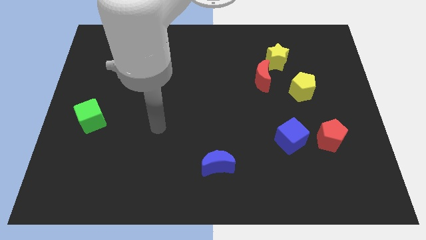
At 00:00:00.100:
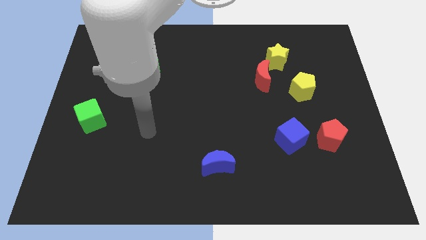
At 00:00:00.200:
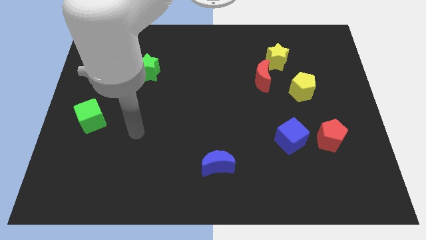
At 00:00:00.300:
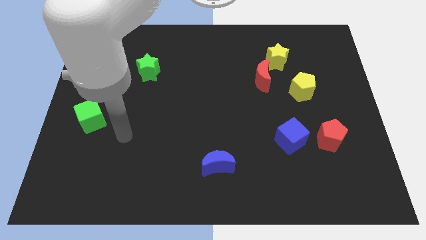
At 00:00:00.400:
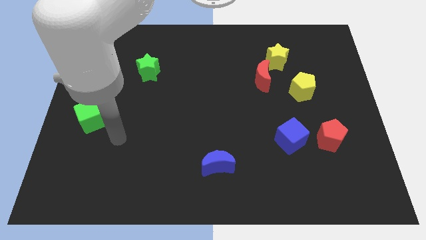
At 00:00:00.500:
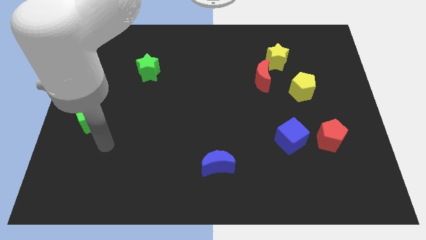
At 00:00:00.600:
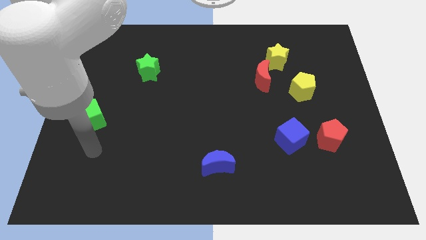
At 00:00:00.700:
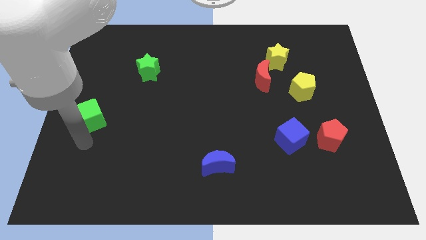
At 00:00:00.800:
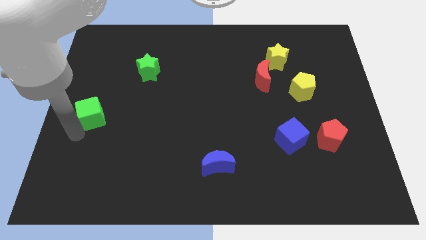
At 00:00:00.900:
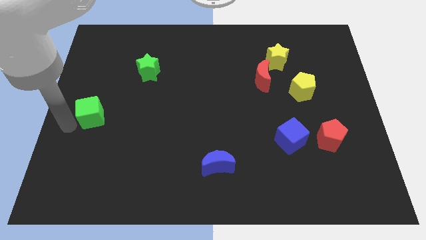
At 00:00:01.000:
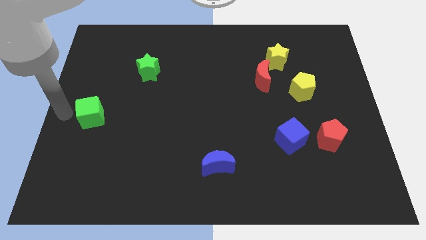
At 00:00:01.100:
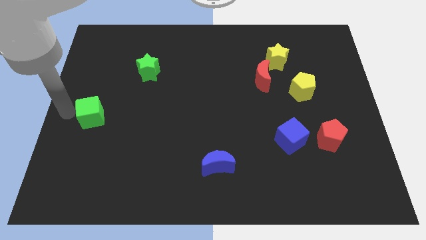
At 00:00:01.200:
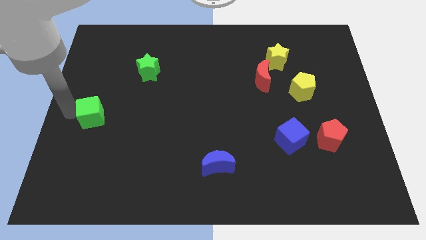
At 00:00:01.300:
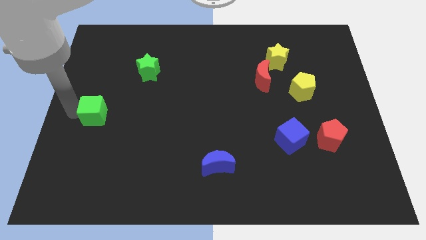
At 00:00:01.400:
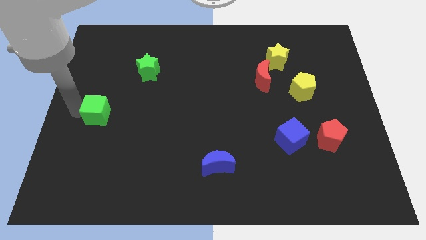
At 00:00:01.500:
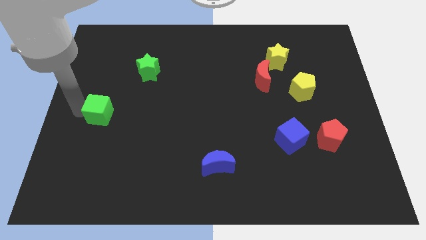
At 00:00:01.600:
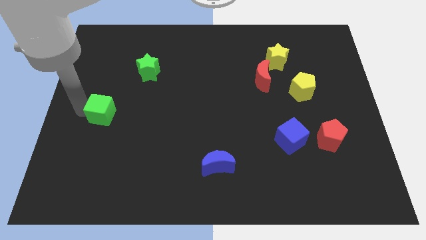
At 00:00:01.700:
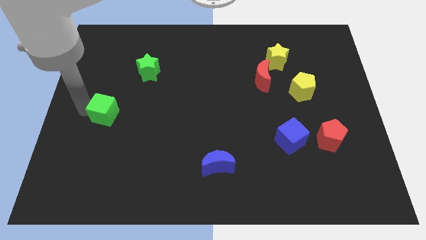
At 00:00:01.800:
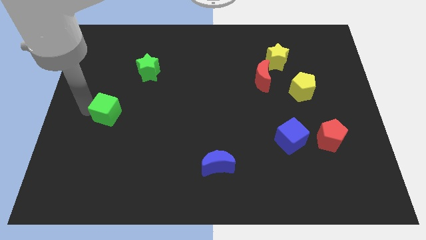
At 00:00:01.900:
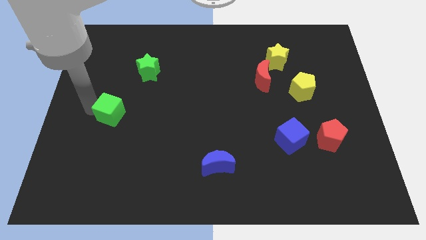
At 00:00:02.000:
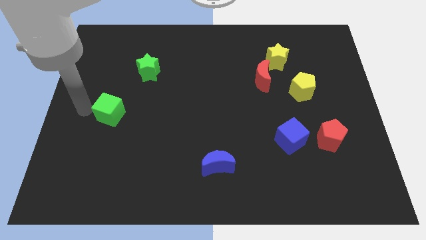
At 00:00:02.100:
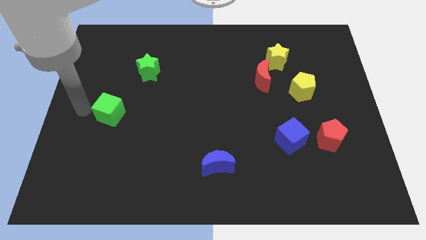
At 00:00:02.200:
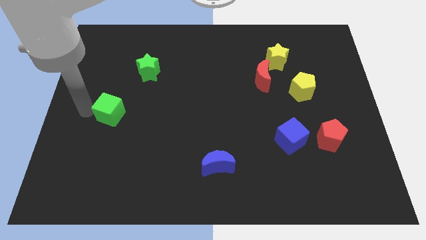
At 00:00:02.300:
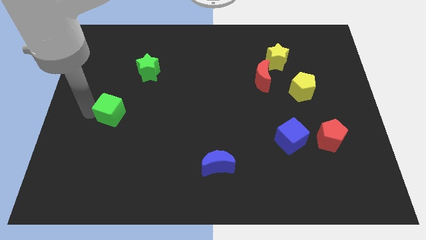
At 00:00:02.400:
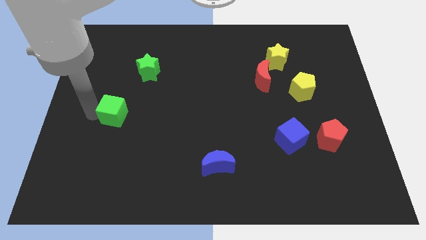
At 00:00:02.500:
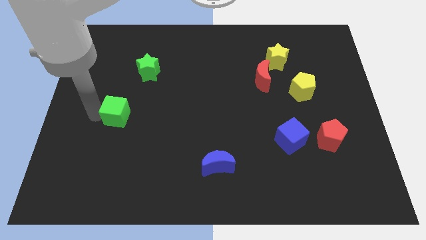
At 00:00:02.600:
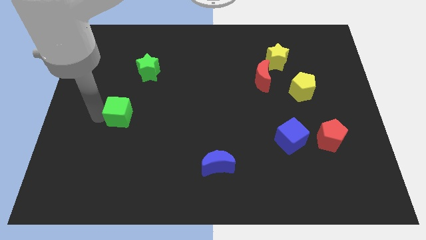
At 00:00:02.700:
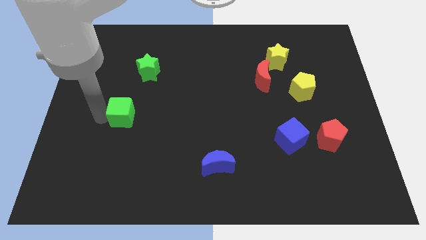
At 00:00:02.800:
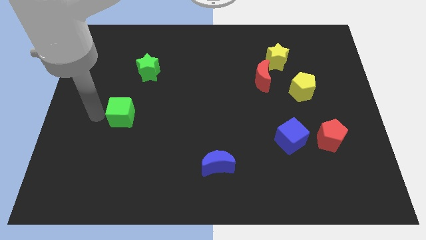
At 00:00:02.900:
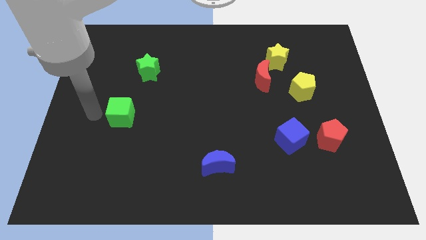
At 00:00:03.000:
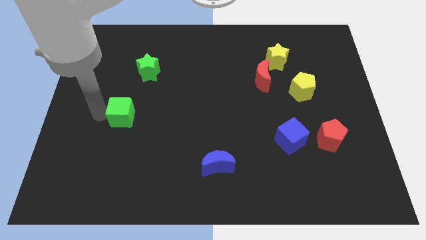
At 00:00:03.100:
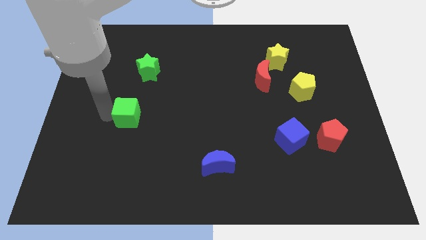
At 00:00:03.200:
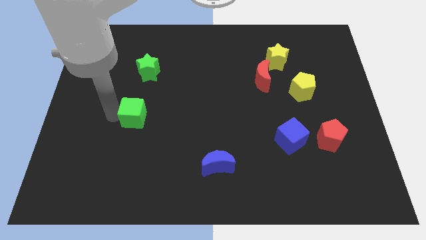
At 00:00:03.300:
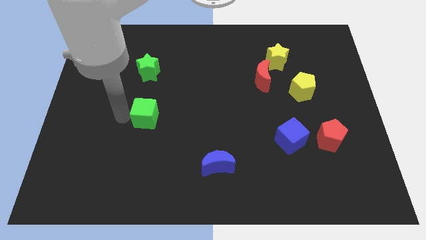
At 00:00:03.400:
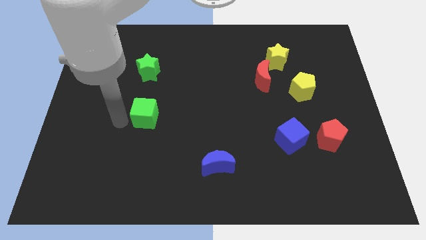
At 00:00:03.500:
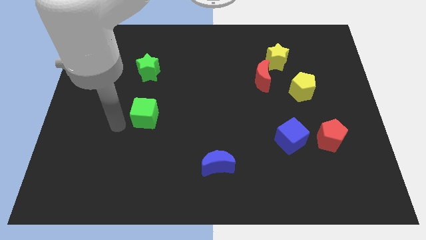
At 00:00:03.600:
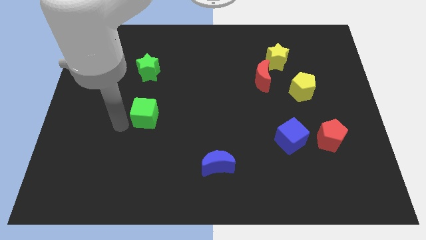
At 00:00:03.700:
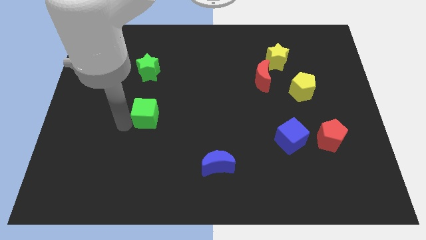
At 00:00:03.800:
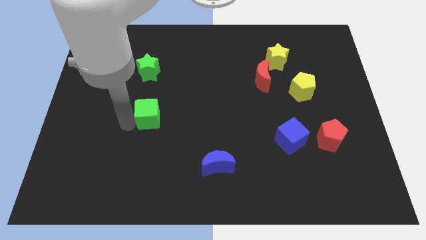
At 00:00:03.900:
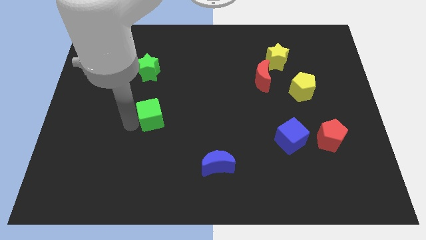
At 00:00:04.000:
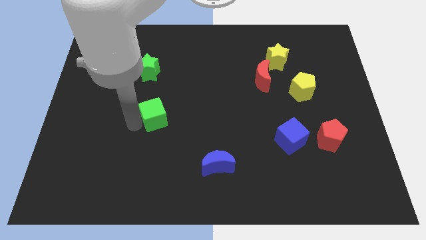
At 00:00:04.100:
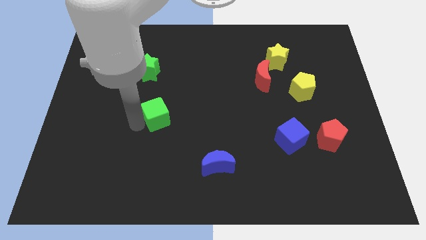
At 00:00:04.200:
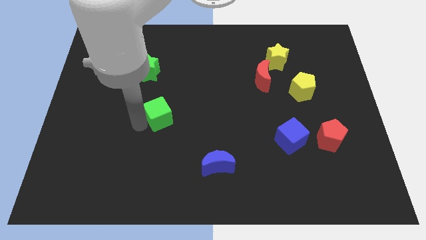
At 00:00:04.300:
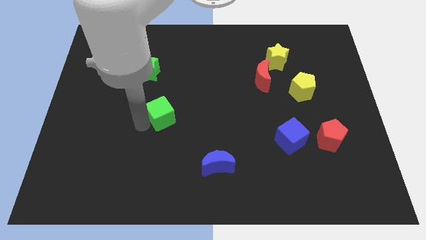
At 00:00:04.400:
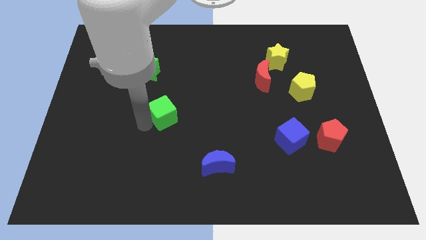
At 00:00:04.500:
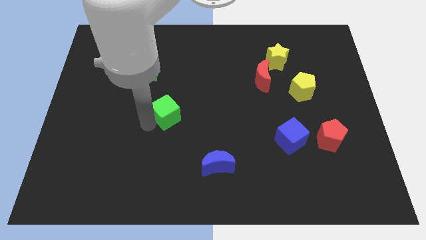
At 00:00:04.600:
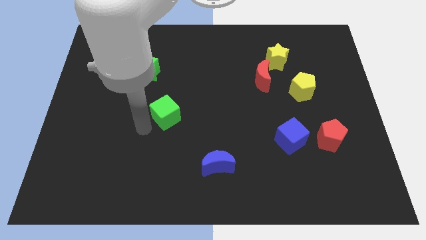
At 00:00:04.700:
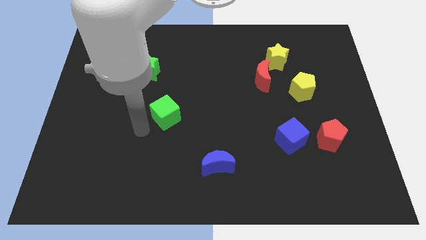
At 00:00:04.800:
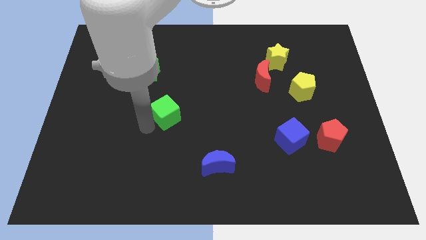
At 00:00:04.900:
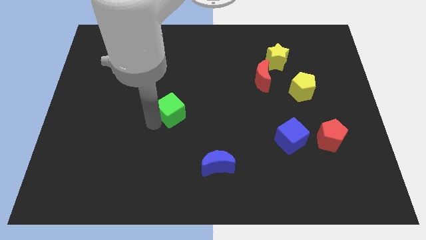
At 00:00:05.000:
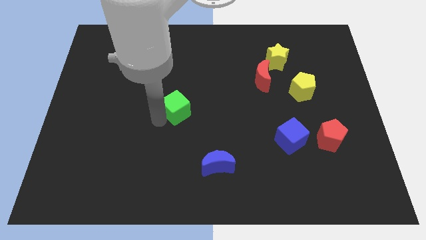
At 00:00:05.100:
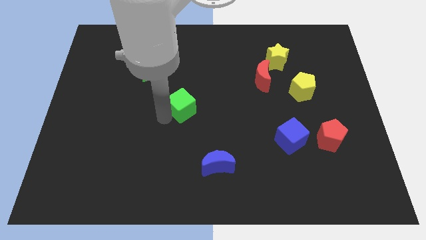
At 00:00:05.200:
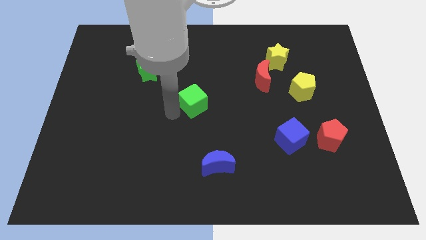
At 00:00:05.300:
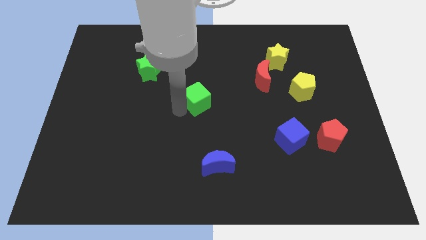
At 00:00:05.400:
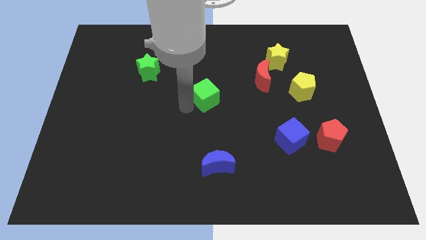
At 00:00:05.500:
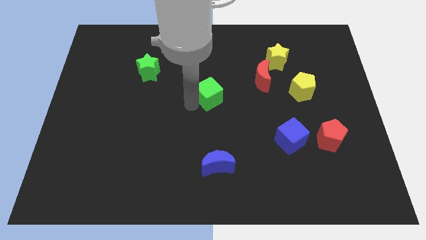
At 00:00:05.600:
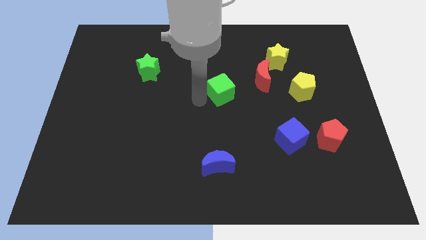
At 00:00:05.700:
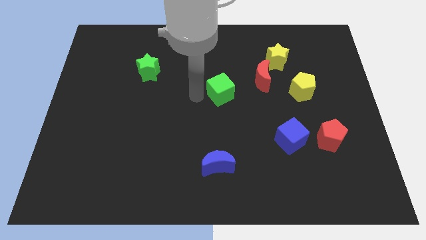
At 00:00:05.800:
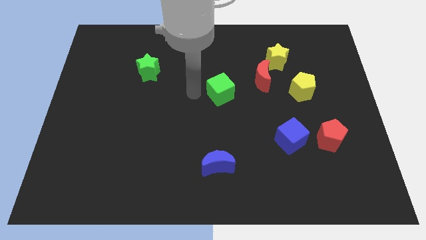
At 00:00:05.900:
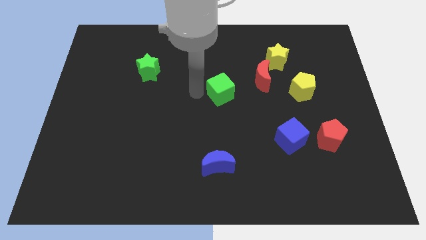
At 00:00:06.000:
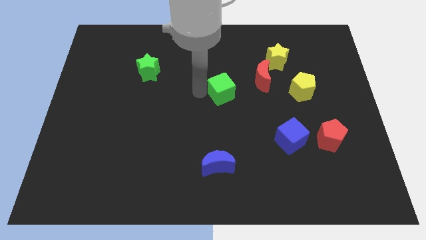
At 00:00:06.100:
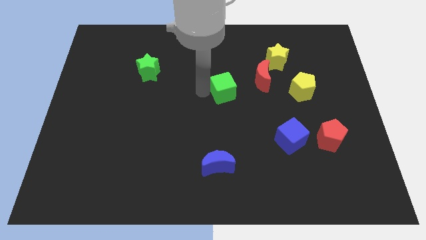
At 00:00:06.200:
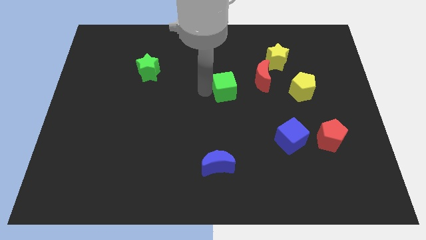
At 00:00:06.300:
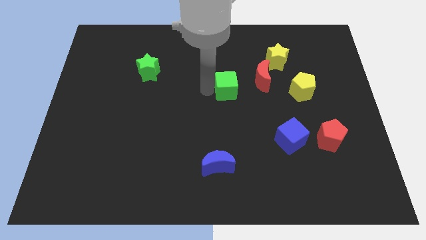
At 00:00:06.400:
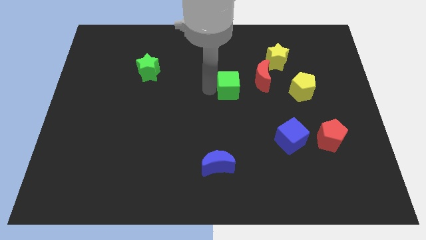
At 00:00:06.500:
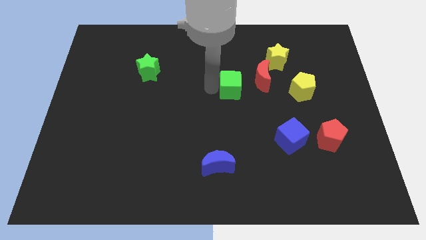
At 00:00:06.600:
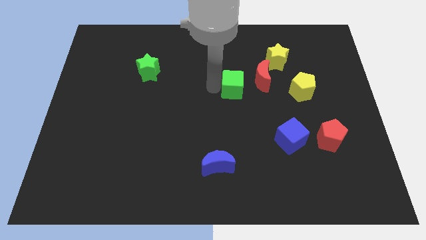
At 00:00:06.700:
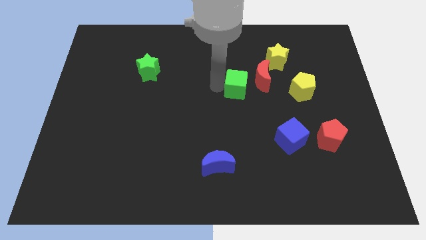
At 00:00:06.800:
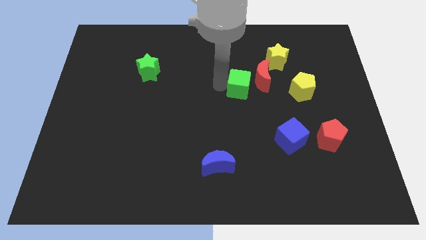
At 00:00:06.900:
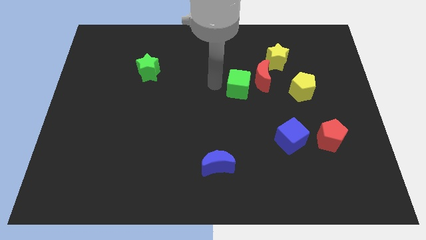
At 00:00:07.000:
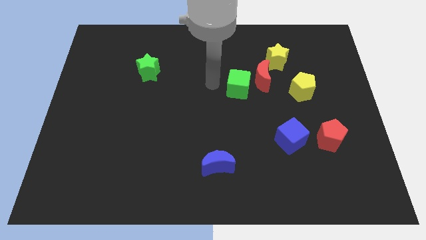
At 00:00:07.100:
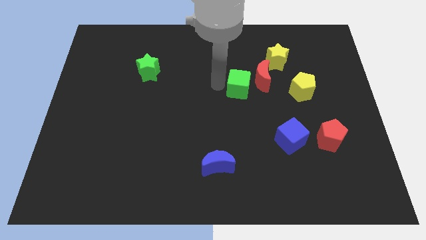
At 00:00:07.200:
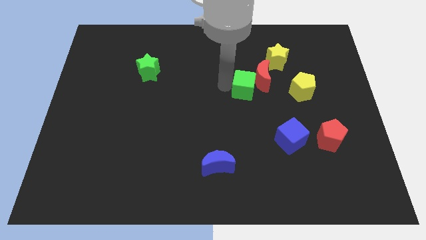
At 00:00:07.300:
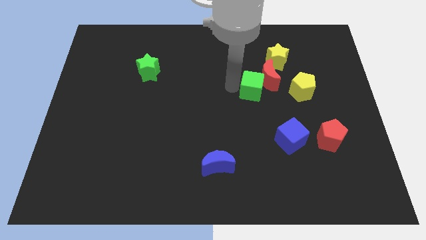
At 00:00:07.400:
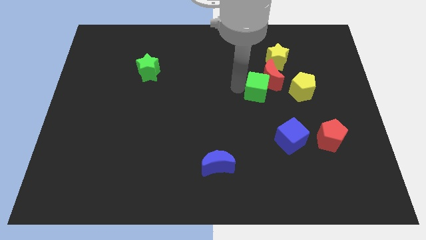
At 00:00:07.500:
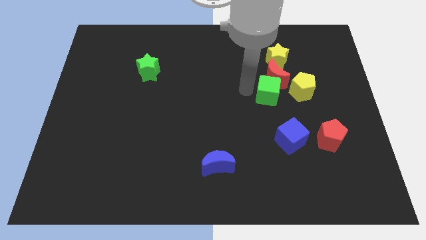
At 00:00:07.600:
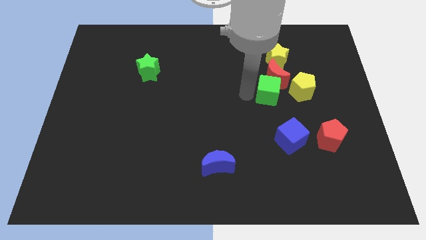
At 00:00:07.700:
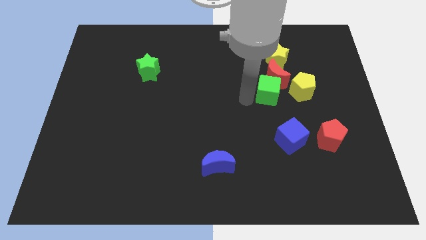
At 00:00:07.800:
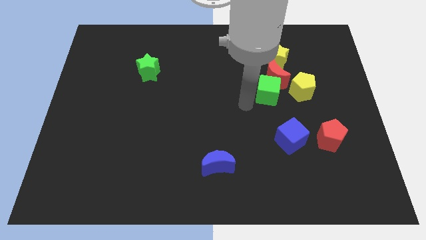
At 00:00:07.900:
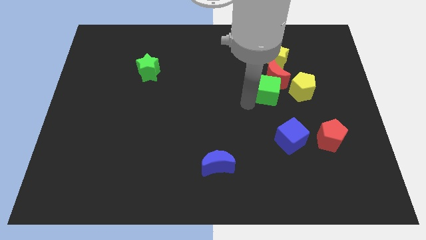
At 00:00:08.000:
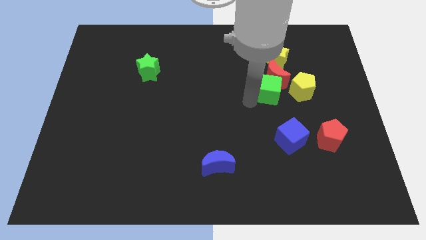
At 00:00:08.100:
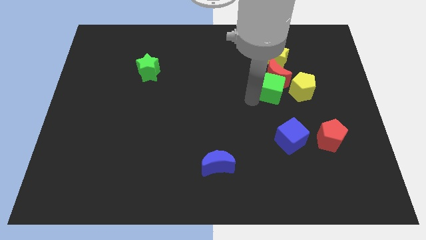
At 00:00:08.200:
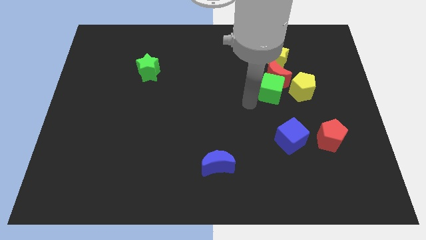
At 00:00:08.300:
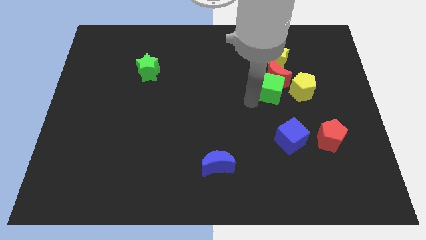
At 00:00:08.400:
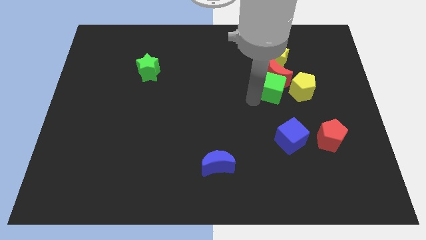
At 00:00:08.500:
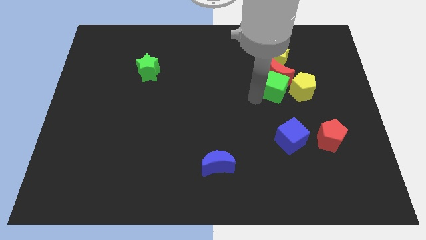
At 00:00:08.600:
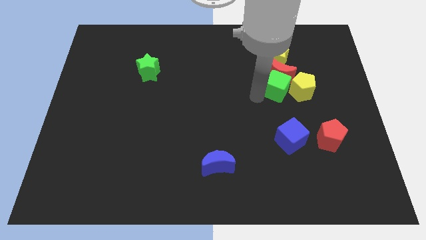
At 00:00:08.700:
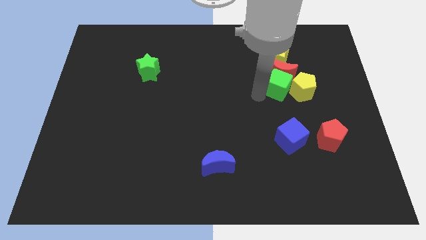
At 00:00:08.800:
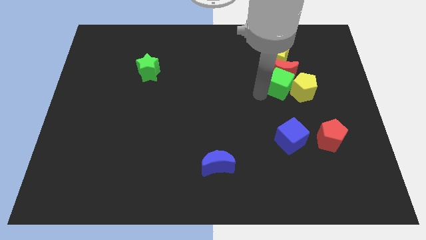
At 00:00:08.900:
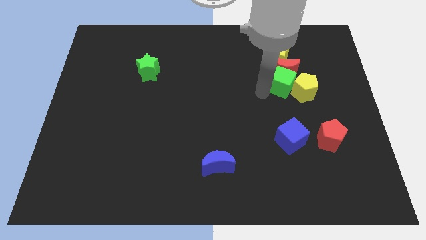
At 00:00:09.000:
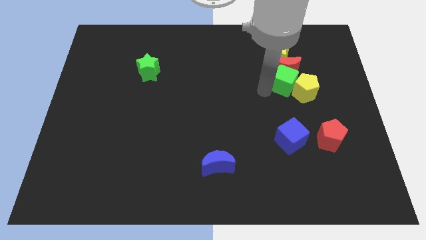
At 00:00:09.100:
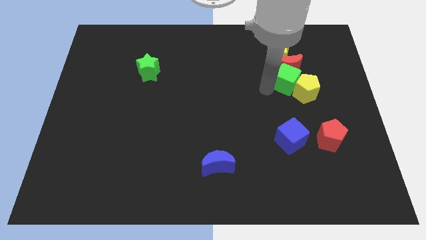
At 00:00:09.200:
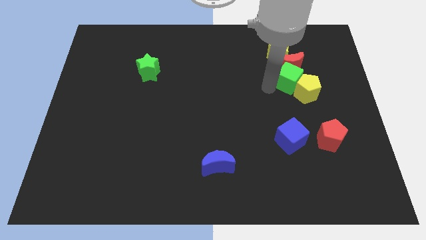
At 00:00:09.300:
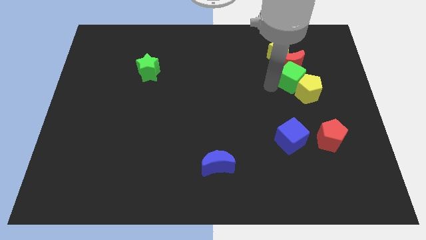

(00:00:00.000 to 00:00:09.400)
slide the green cube diagonally down and to the right of the yellow star
